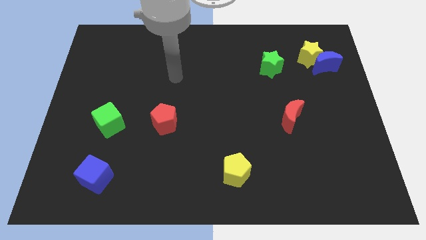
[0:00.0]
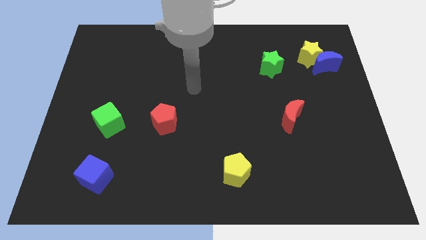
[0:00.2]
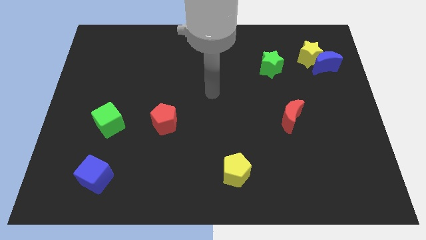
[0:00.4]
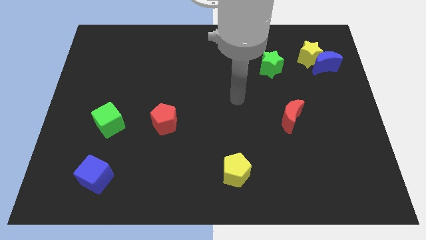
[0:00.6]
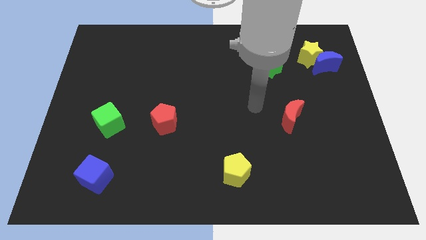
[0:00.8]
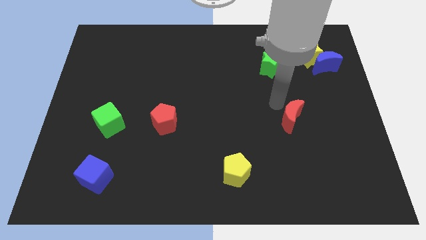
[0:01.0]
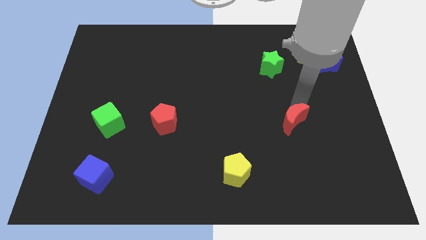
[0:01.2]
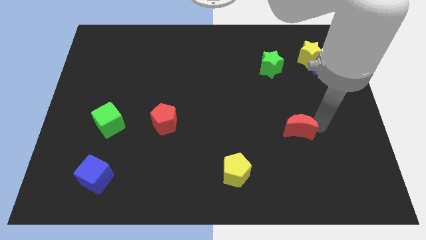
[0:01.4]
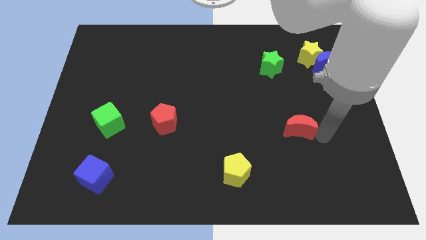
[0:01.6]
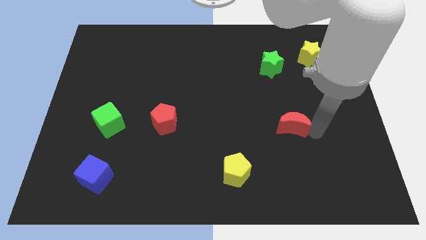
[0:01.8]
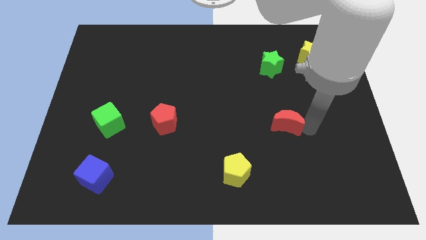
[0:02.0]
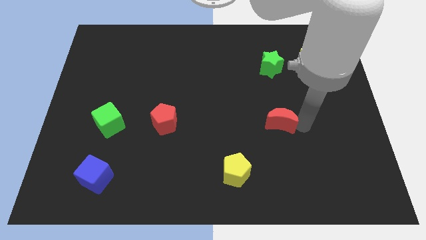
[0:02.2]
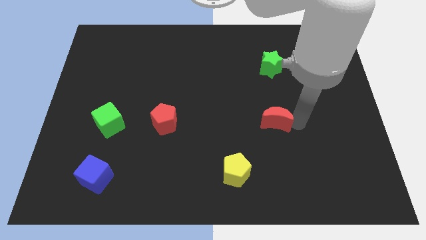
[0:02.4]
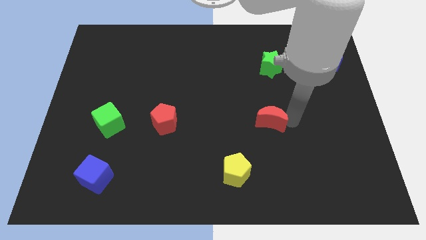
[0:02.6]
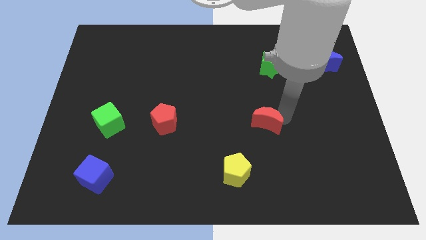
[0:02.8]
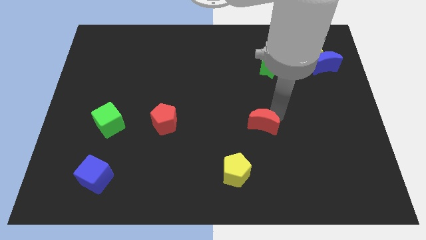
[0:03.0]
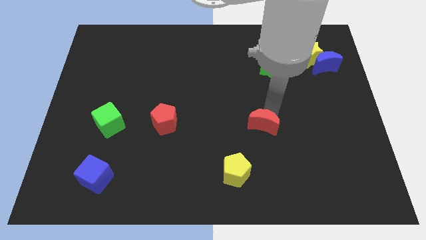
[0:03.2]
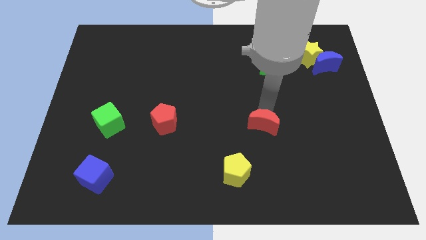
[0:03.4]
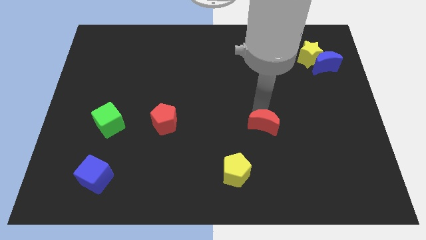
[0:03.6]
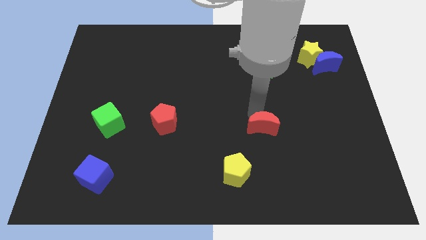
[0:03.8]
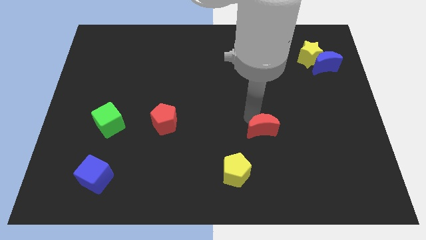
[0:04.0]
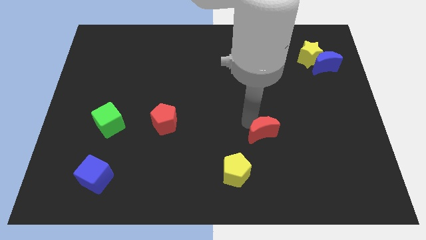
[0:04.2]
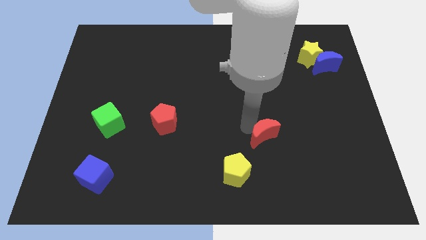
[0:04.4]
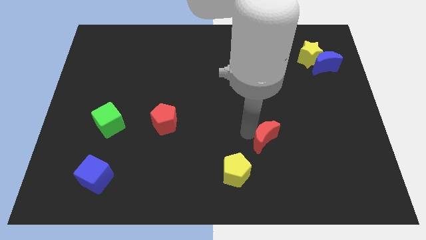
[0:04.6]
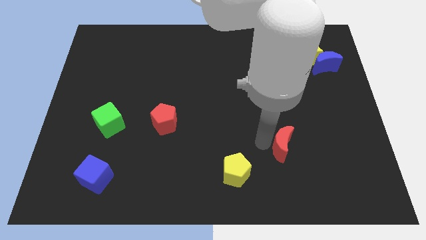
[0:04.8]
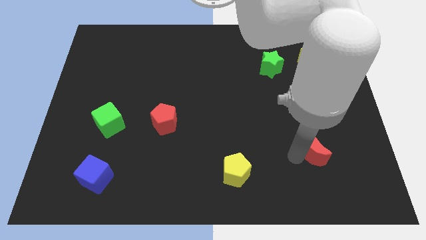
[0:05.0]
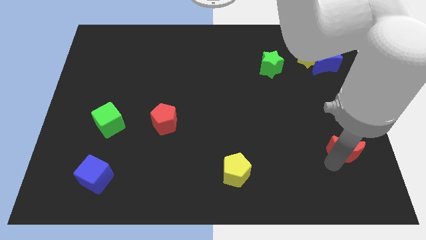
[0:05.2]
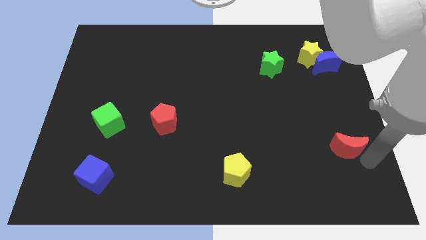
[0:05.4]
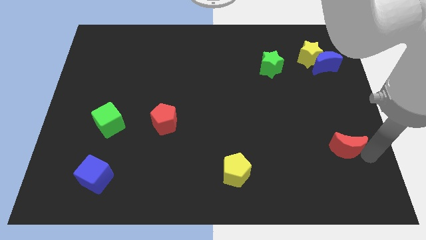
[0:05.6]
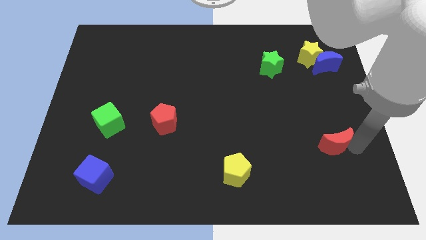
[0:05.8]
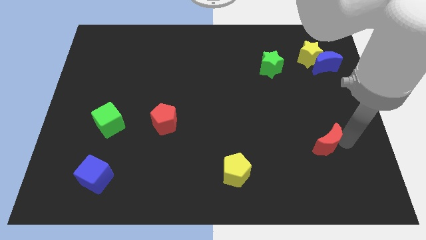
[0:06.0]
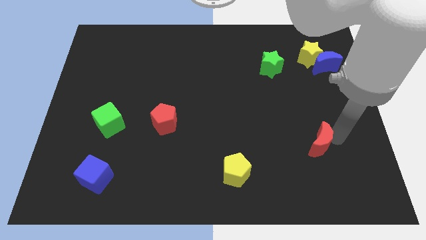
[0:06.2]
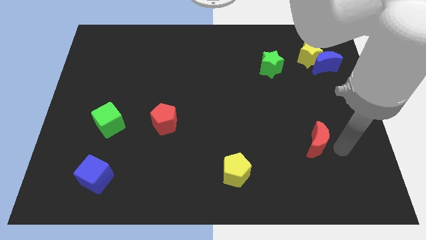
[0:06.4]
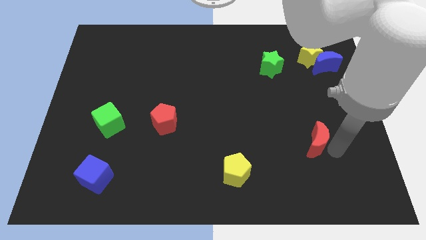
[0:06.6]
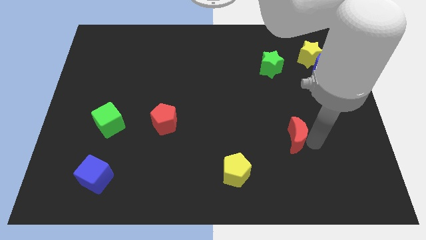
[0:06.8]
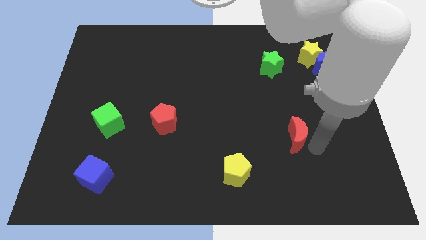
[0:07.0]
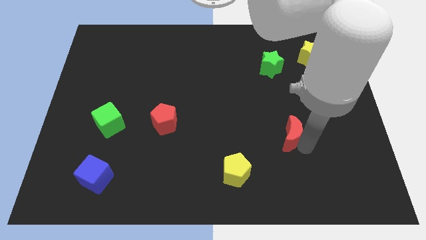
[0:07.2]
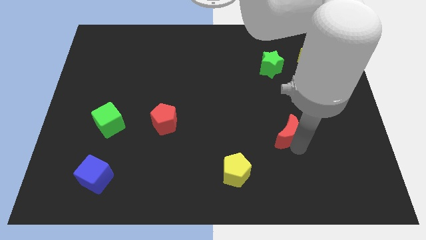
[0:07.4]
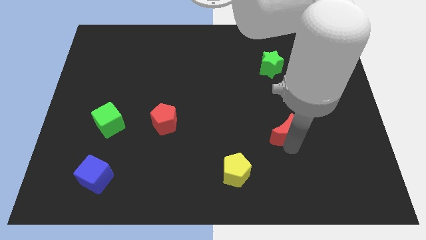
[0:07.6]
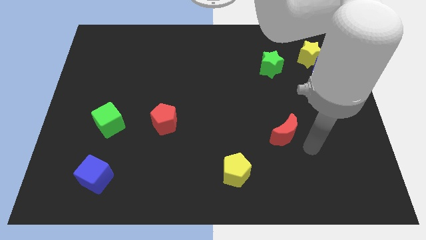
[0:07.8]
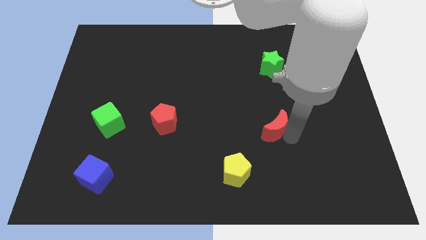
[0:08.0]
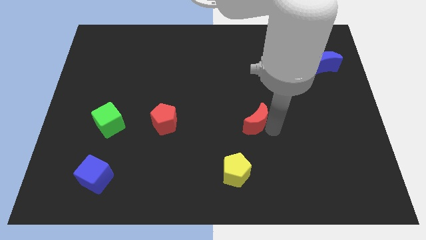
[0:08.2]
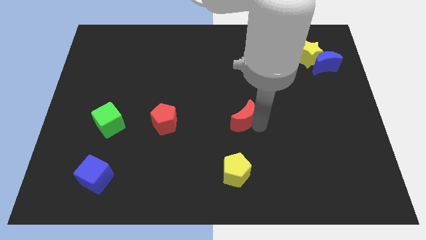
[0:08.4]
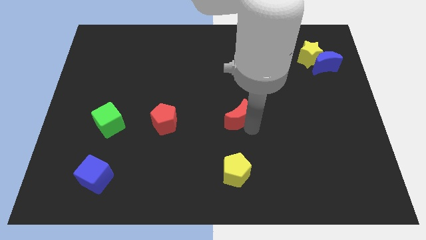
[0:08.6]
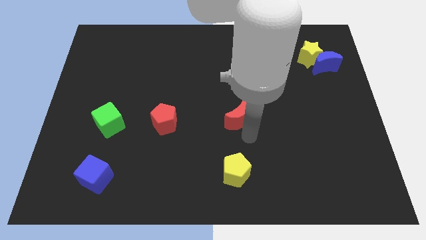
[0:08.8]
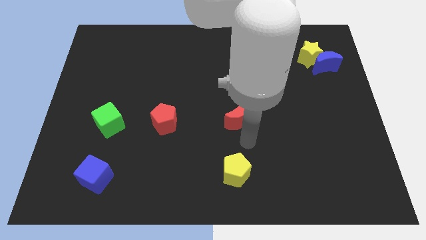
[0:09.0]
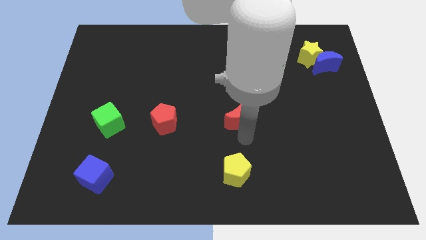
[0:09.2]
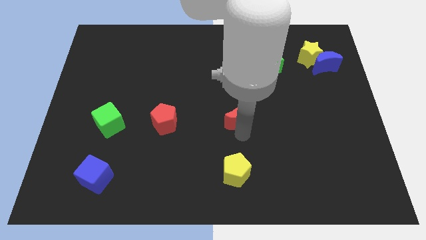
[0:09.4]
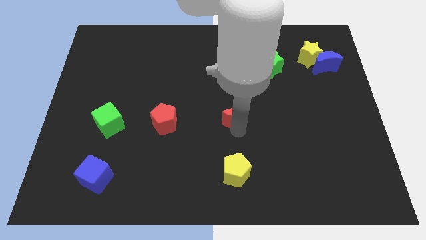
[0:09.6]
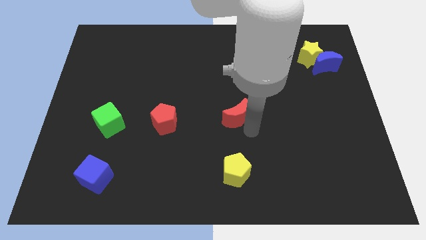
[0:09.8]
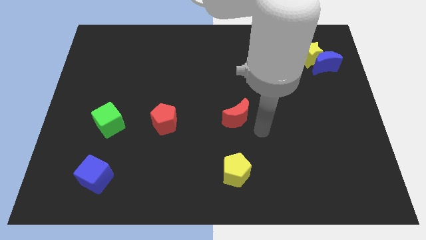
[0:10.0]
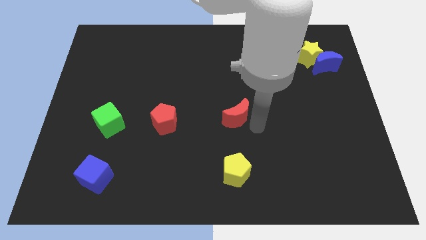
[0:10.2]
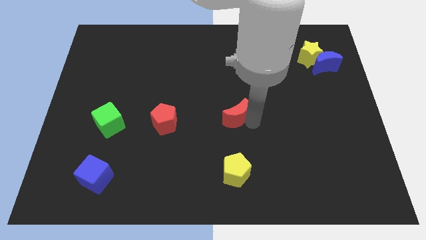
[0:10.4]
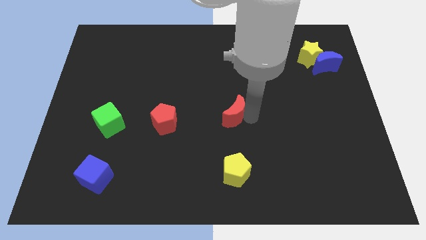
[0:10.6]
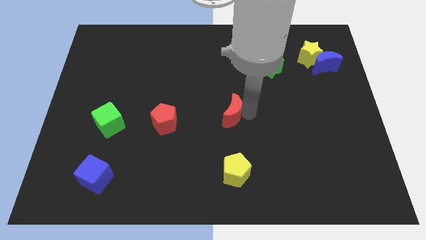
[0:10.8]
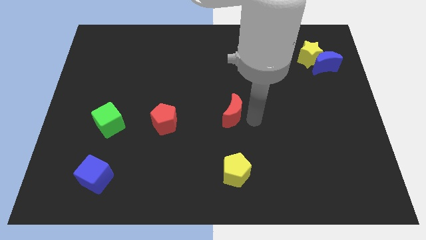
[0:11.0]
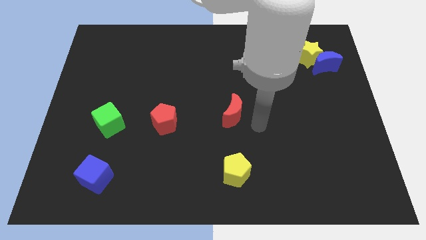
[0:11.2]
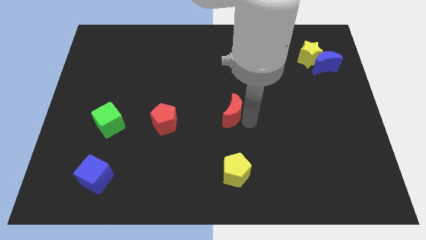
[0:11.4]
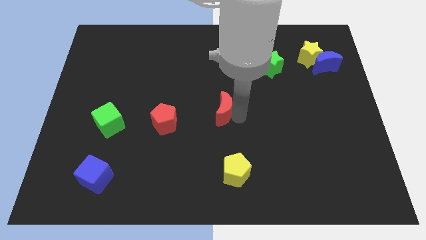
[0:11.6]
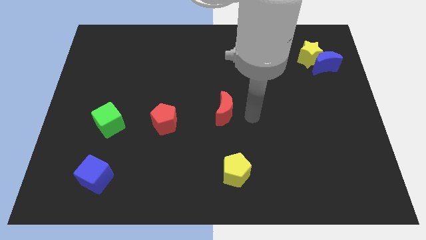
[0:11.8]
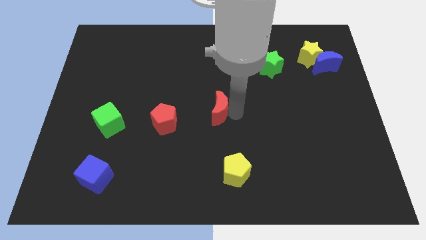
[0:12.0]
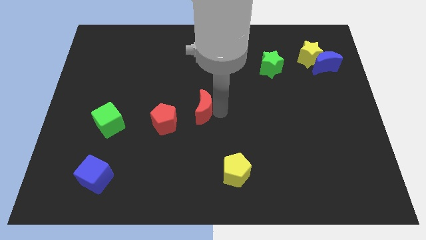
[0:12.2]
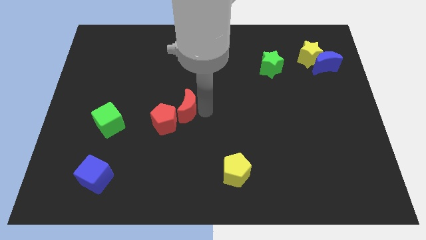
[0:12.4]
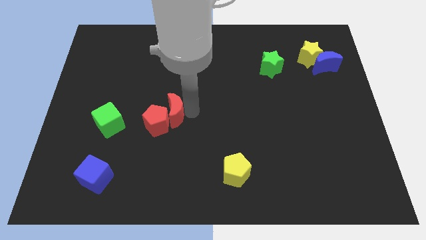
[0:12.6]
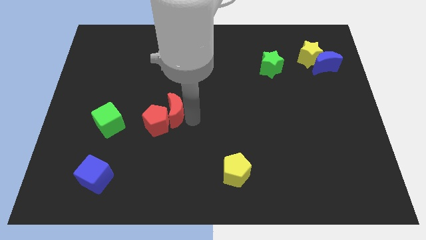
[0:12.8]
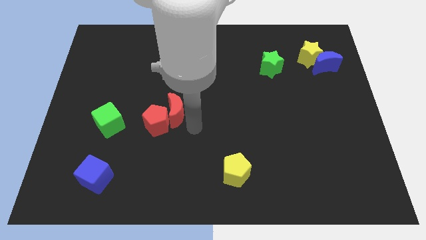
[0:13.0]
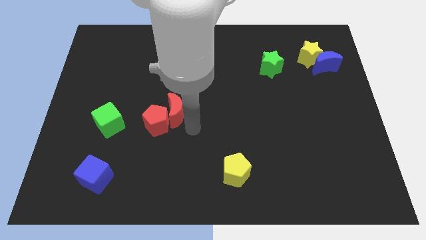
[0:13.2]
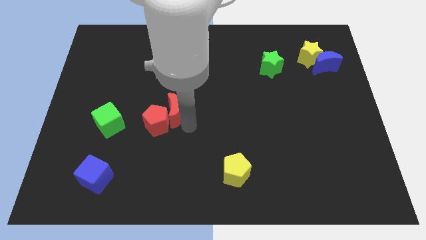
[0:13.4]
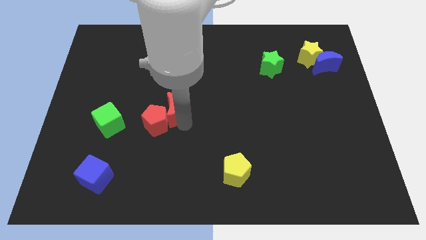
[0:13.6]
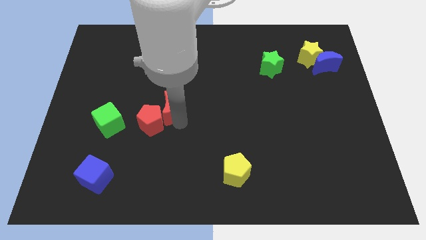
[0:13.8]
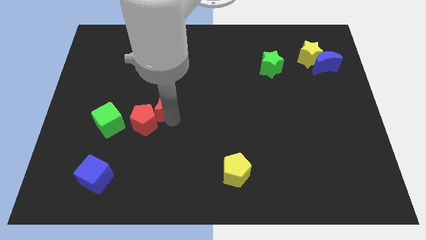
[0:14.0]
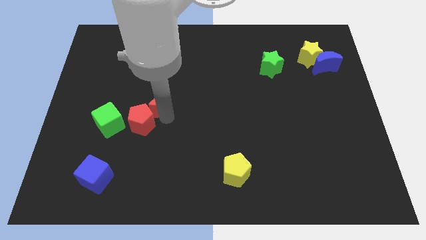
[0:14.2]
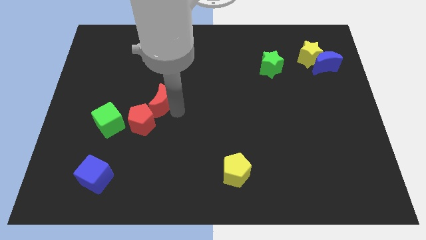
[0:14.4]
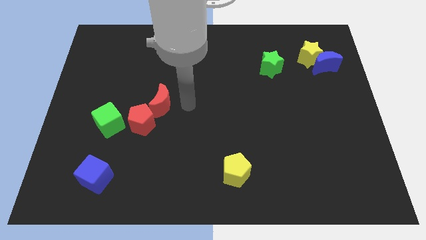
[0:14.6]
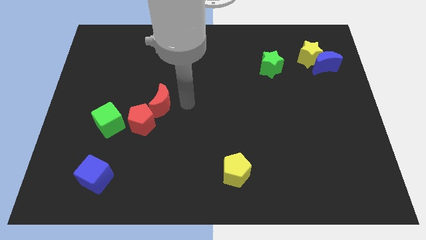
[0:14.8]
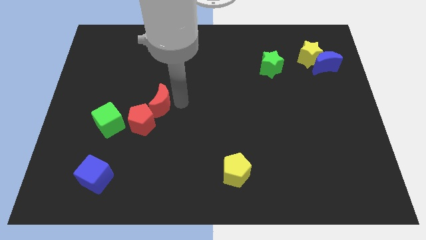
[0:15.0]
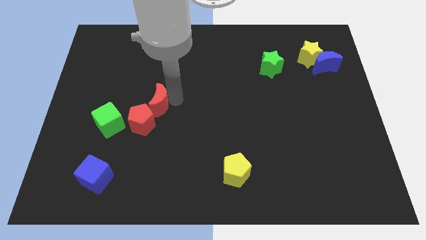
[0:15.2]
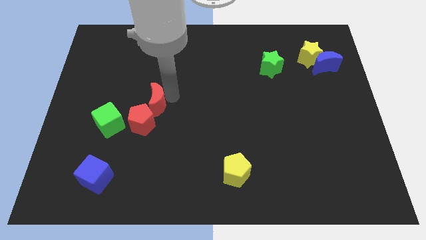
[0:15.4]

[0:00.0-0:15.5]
move the red moon to the top right of the green cube

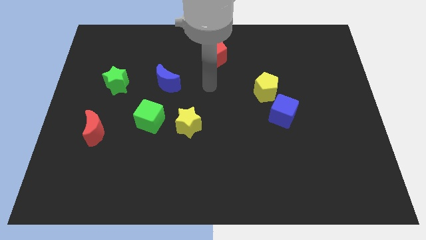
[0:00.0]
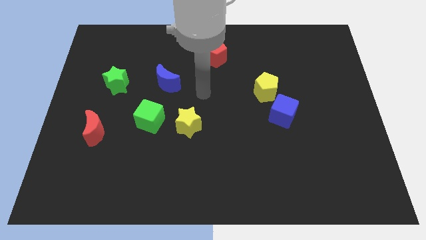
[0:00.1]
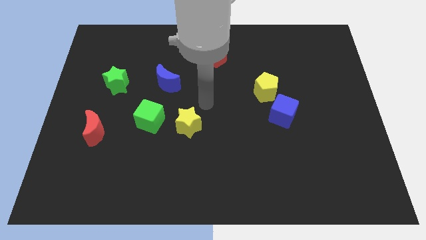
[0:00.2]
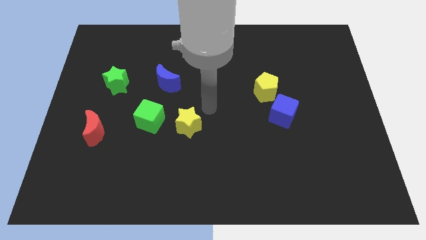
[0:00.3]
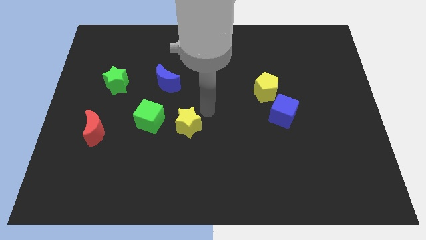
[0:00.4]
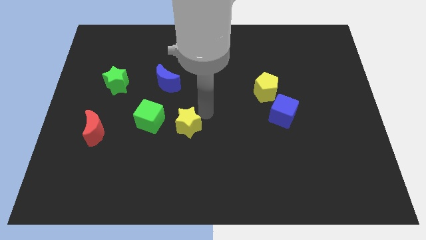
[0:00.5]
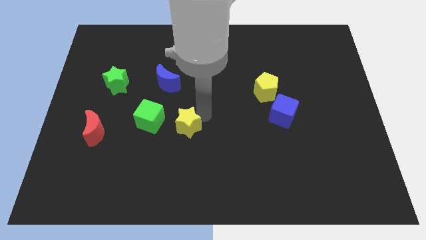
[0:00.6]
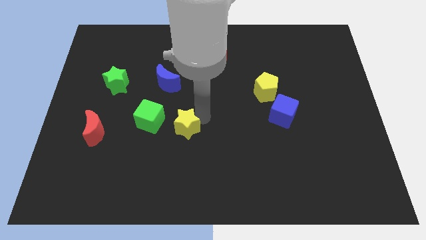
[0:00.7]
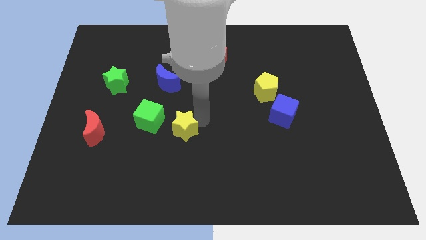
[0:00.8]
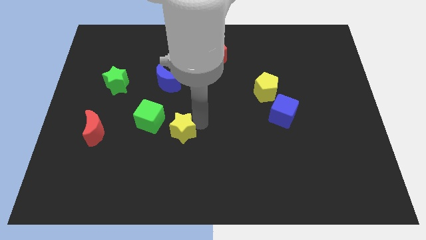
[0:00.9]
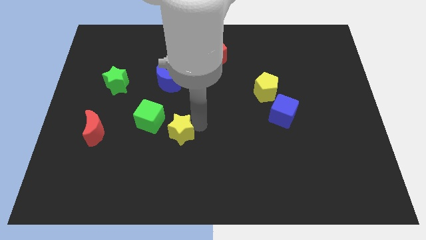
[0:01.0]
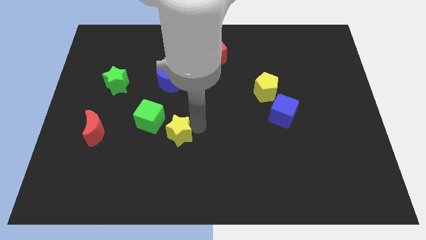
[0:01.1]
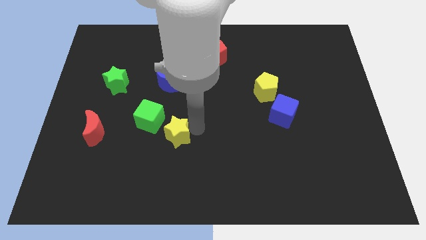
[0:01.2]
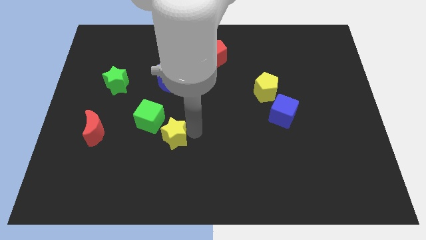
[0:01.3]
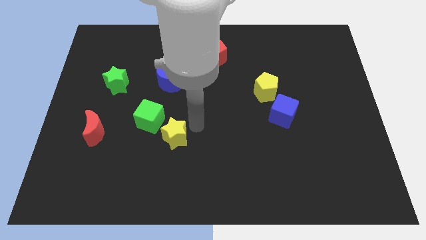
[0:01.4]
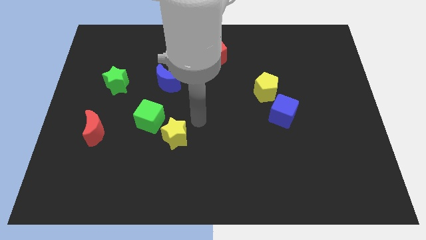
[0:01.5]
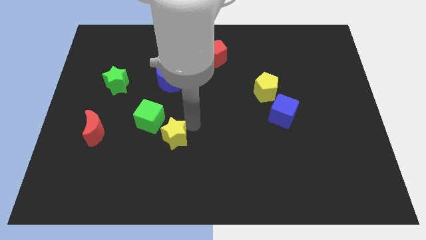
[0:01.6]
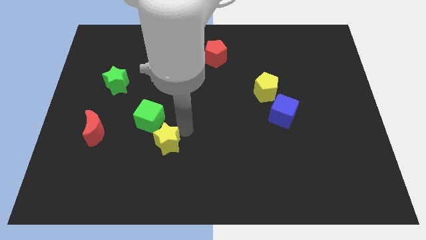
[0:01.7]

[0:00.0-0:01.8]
put the yellow star to the bottom of the green cube
